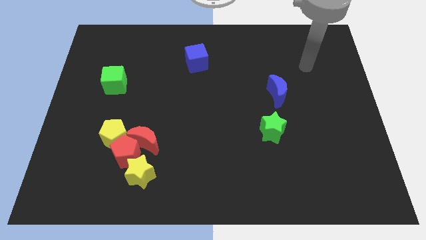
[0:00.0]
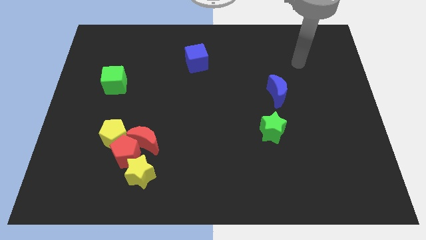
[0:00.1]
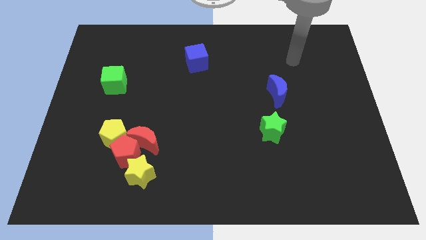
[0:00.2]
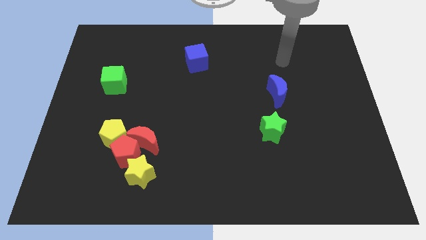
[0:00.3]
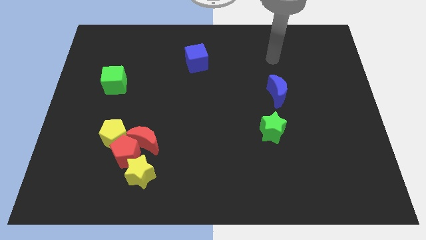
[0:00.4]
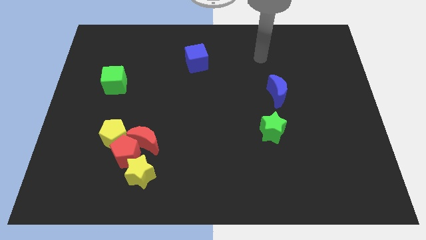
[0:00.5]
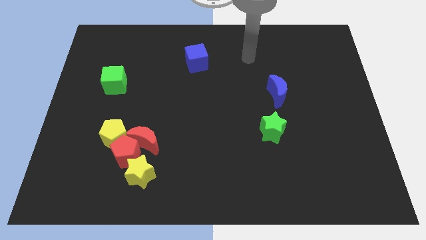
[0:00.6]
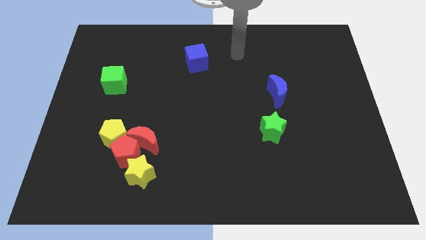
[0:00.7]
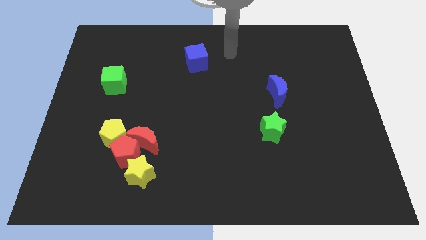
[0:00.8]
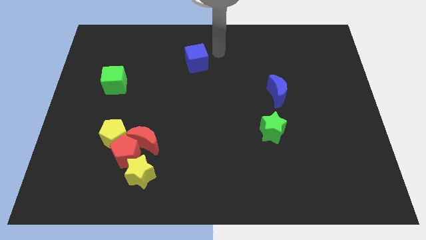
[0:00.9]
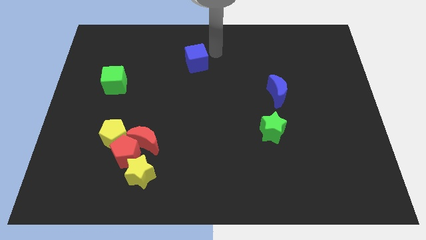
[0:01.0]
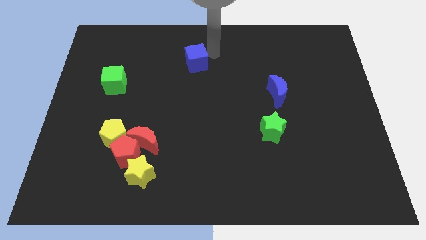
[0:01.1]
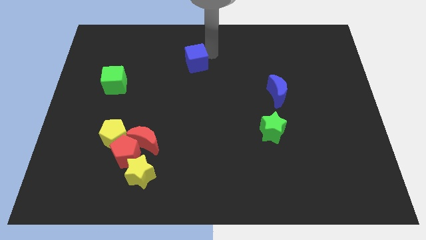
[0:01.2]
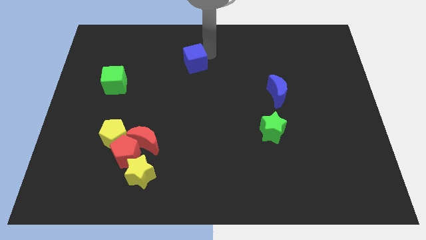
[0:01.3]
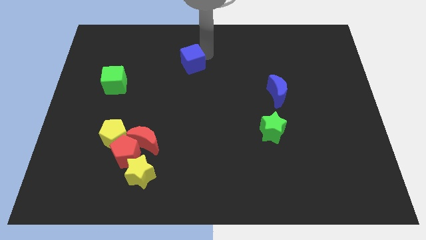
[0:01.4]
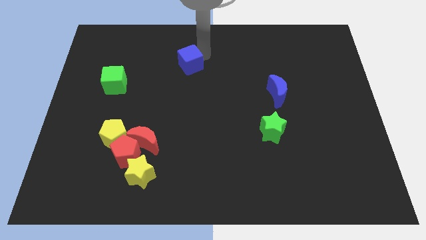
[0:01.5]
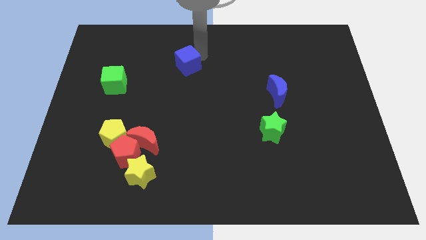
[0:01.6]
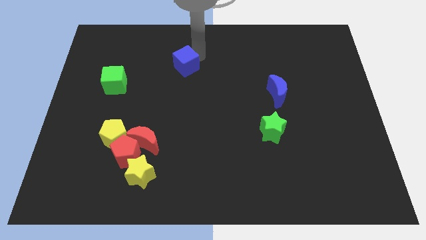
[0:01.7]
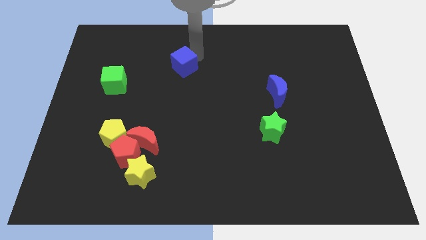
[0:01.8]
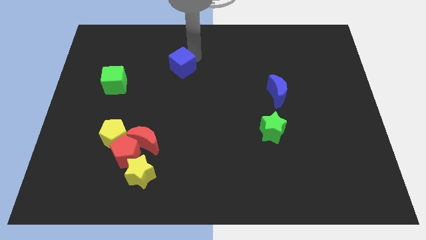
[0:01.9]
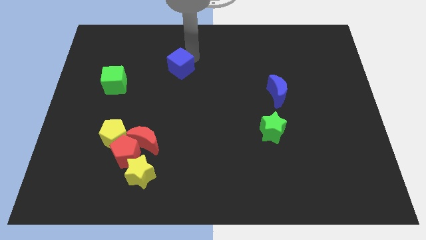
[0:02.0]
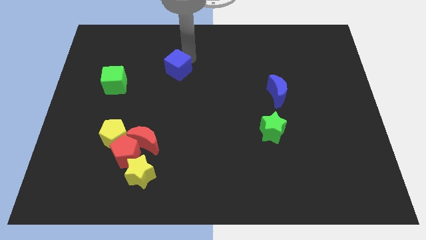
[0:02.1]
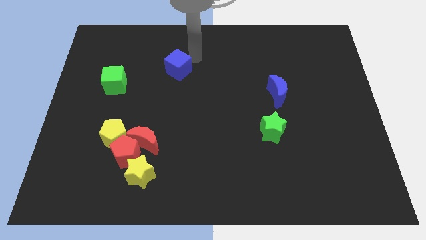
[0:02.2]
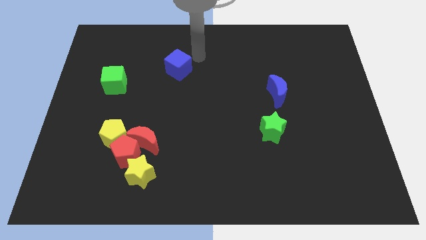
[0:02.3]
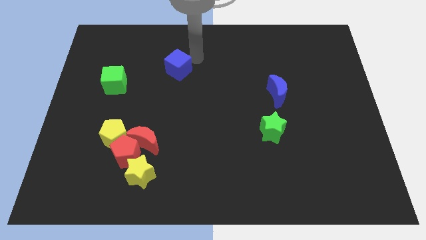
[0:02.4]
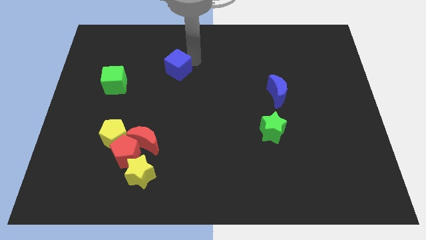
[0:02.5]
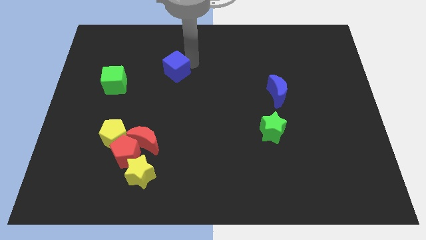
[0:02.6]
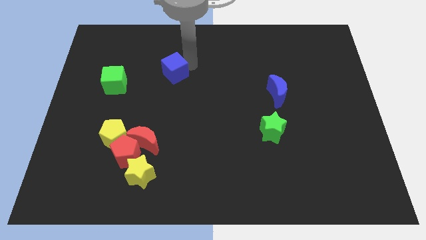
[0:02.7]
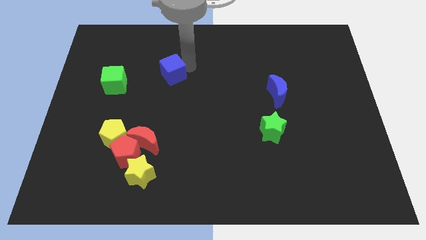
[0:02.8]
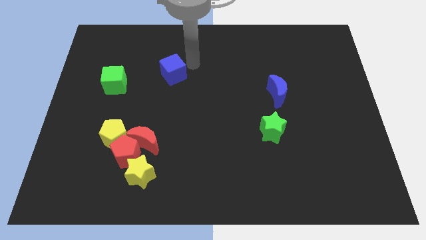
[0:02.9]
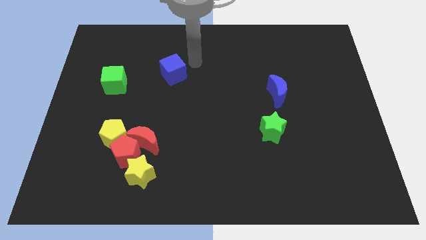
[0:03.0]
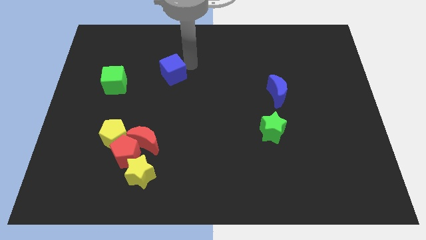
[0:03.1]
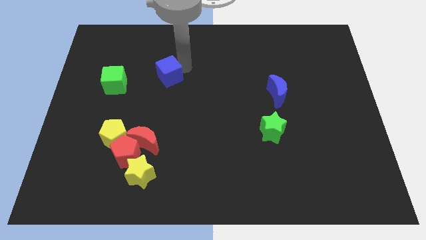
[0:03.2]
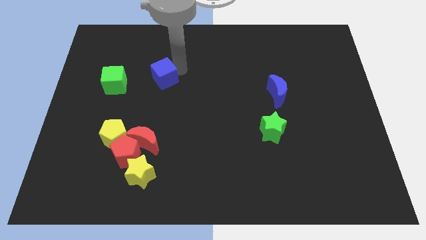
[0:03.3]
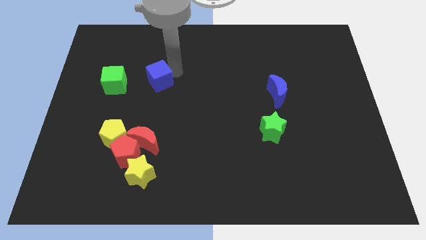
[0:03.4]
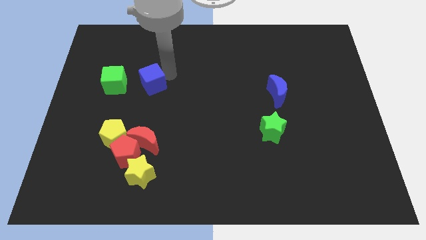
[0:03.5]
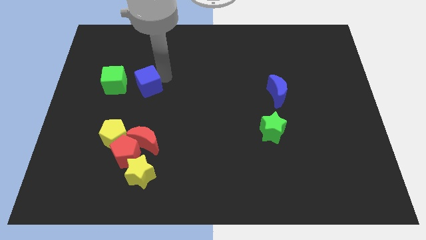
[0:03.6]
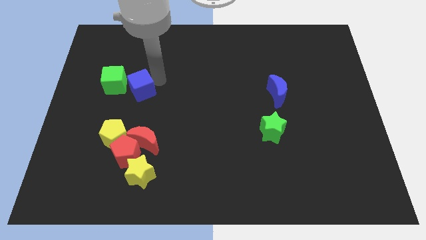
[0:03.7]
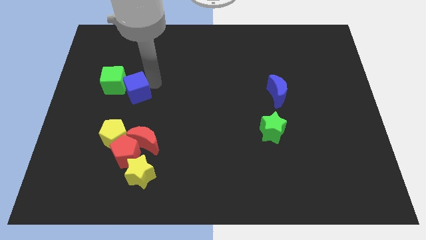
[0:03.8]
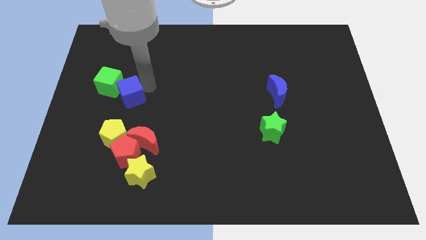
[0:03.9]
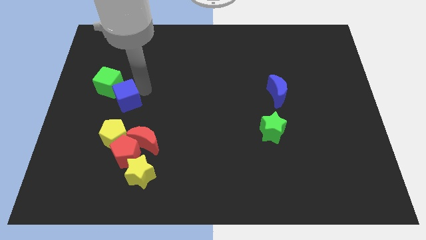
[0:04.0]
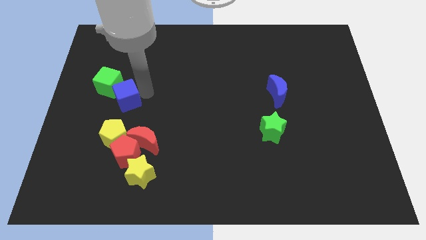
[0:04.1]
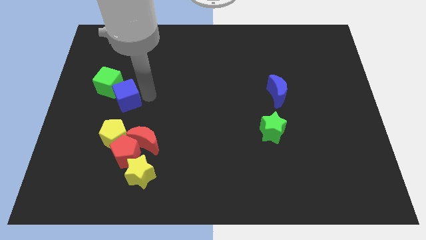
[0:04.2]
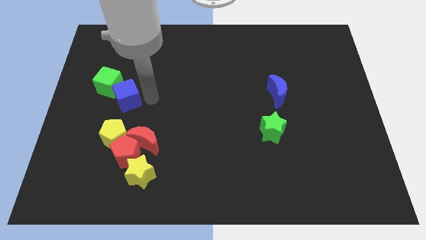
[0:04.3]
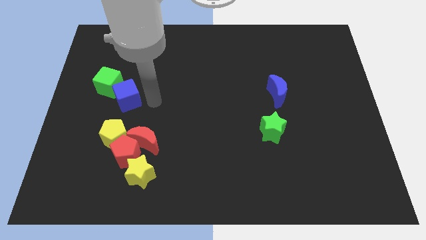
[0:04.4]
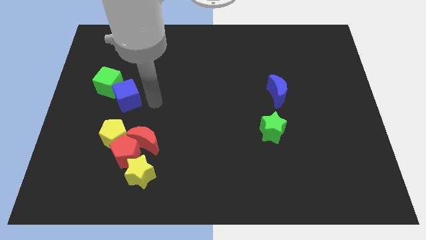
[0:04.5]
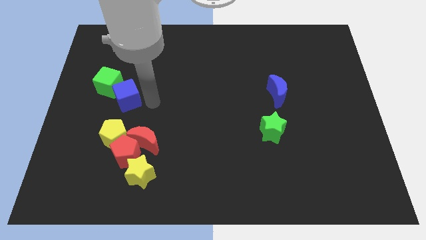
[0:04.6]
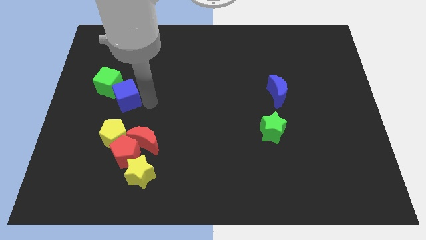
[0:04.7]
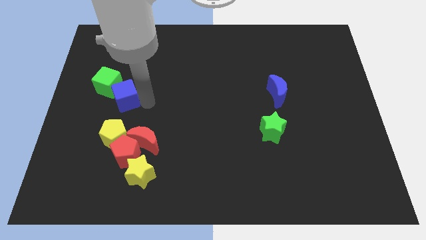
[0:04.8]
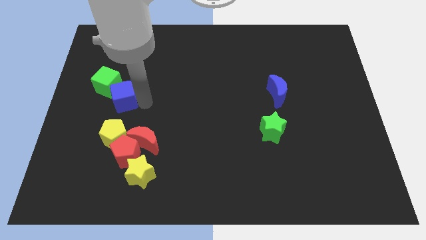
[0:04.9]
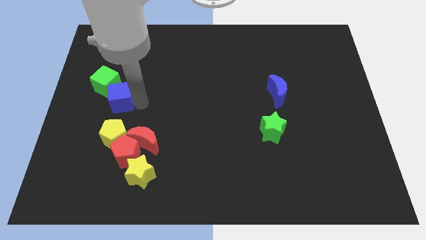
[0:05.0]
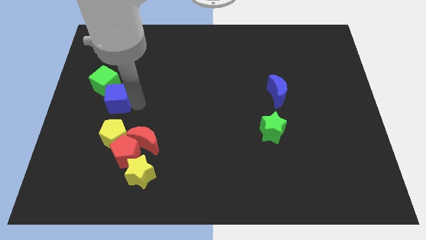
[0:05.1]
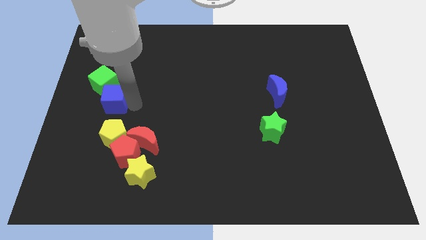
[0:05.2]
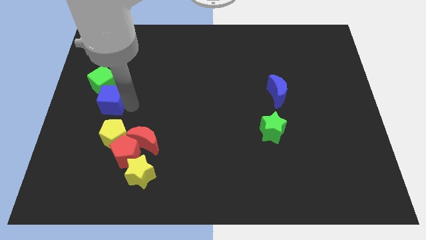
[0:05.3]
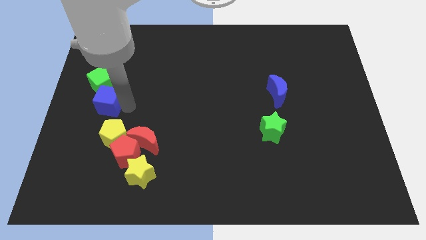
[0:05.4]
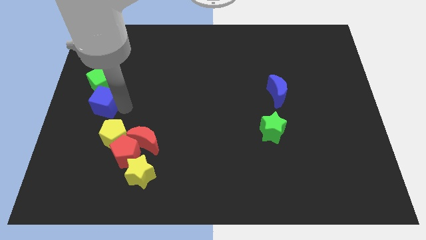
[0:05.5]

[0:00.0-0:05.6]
move the blue cube to the left side of the board

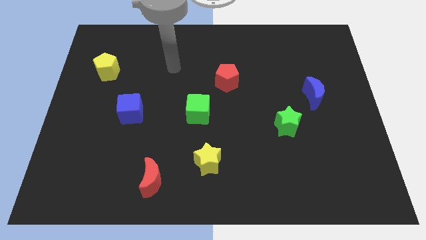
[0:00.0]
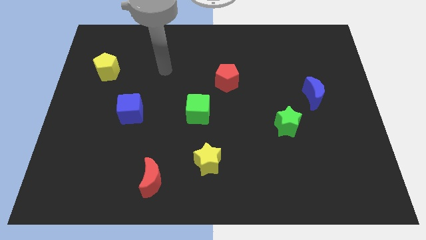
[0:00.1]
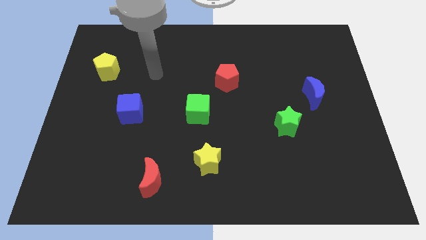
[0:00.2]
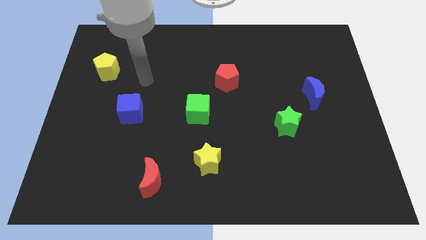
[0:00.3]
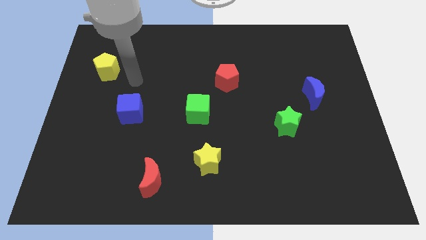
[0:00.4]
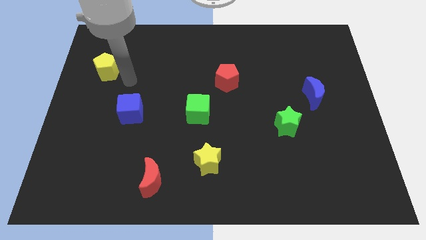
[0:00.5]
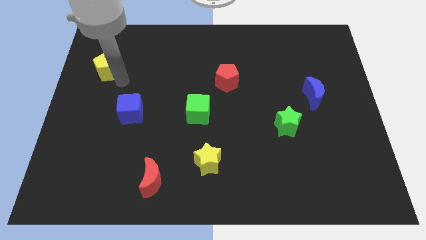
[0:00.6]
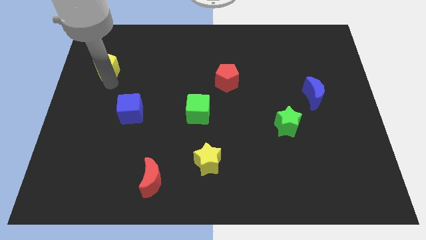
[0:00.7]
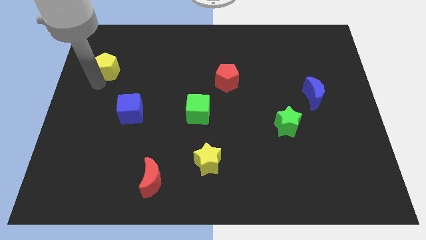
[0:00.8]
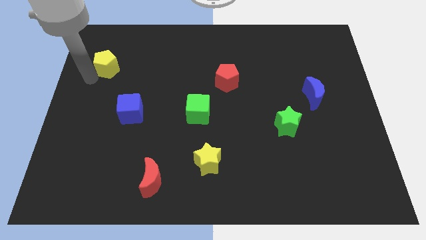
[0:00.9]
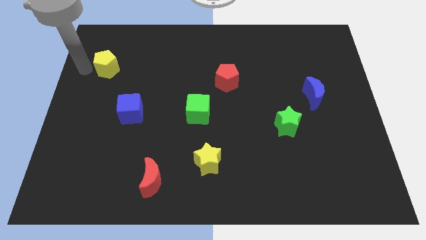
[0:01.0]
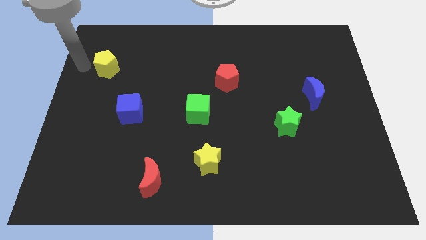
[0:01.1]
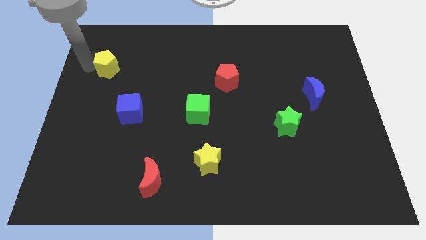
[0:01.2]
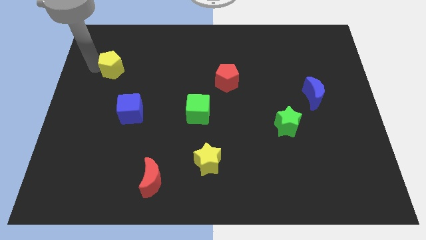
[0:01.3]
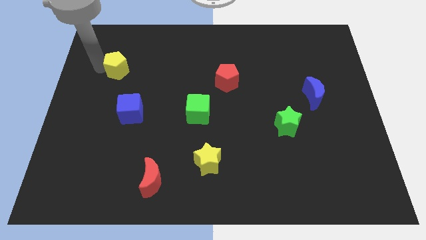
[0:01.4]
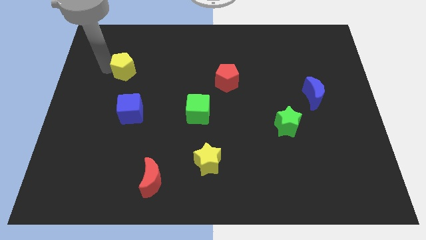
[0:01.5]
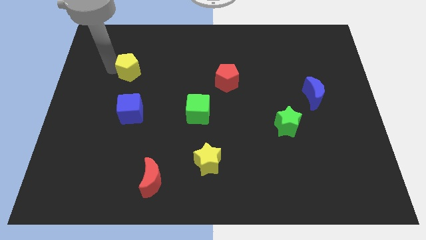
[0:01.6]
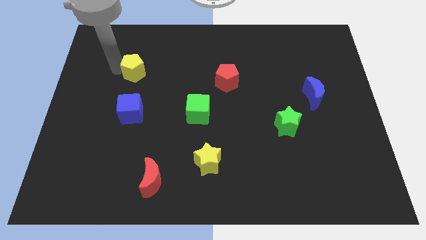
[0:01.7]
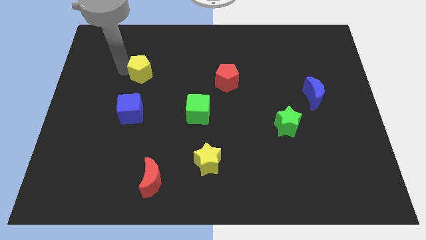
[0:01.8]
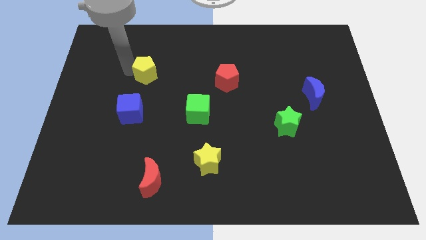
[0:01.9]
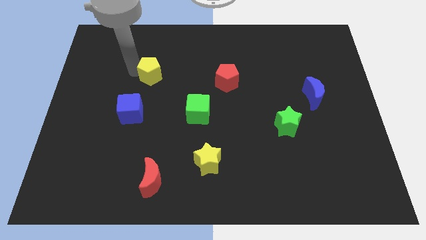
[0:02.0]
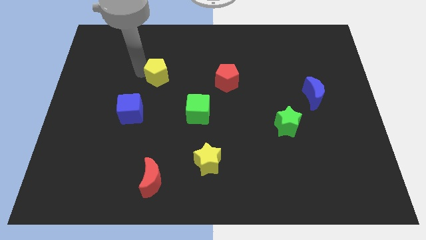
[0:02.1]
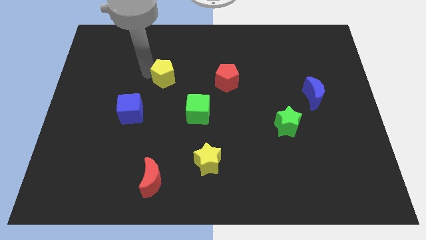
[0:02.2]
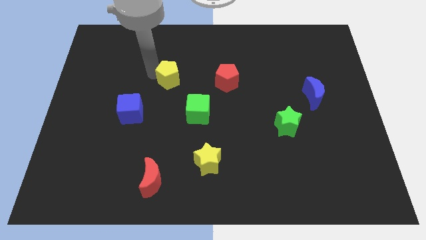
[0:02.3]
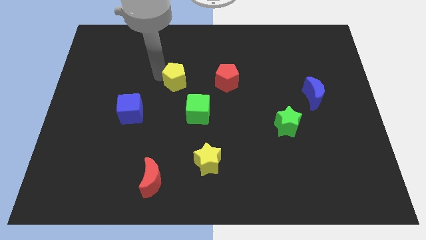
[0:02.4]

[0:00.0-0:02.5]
move the yellow pentagon to the middle
